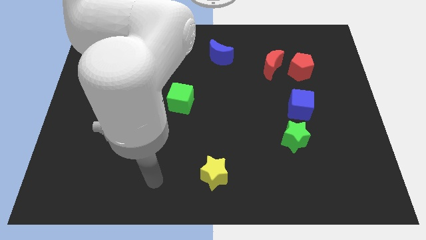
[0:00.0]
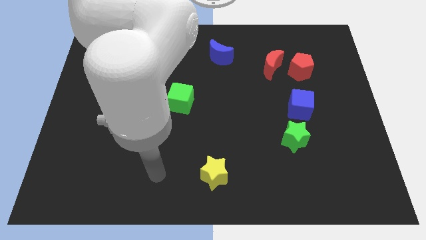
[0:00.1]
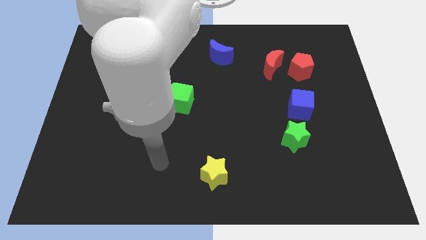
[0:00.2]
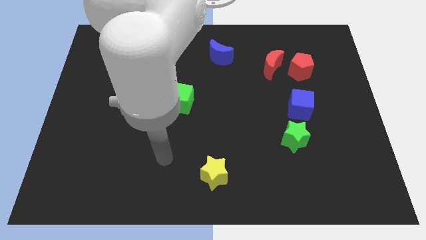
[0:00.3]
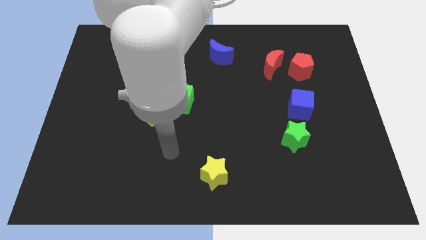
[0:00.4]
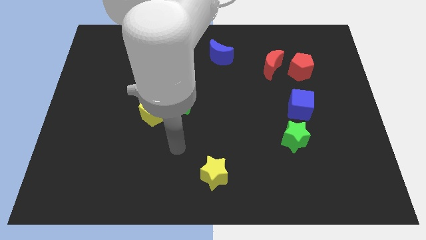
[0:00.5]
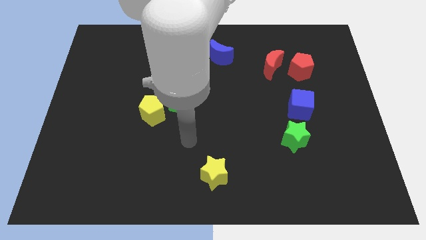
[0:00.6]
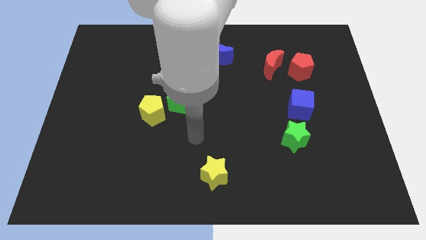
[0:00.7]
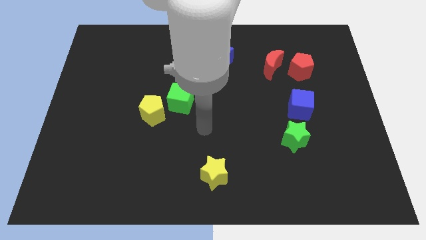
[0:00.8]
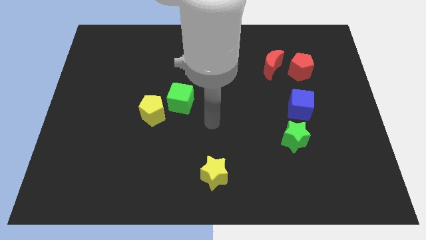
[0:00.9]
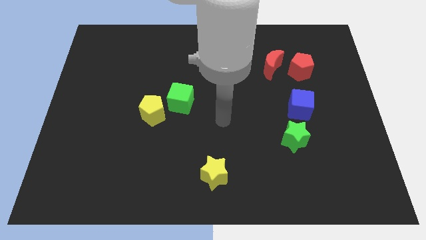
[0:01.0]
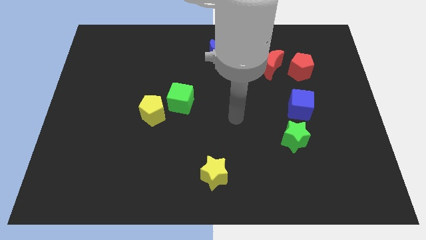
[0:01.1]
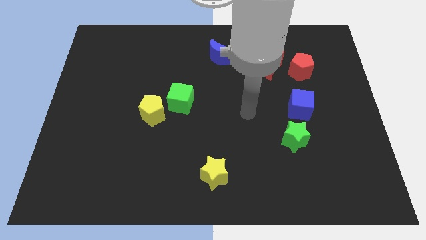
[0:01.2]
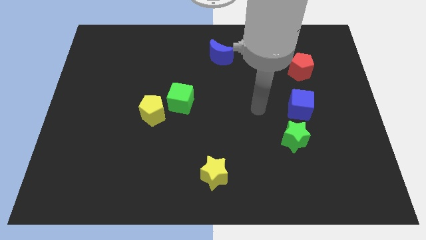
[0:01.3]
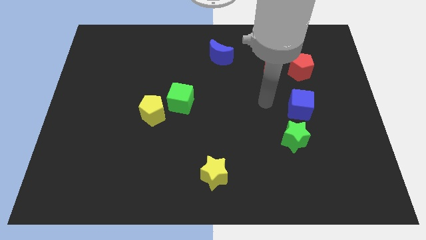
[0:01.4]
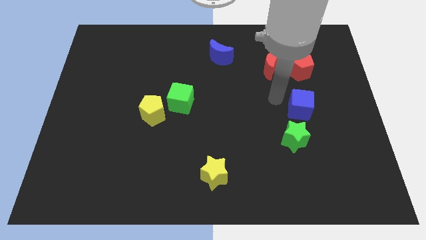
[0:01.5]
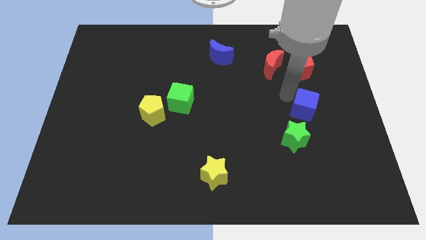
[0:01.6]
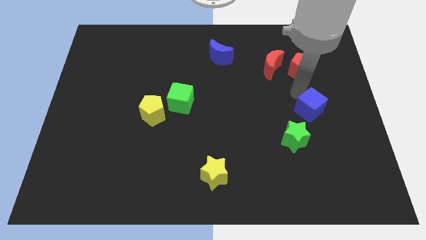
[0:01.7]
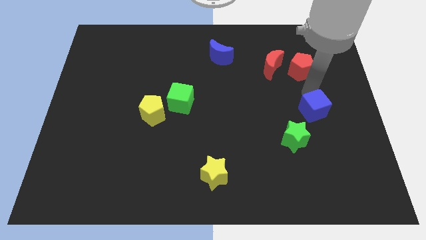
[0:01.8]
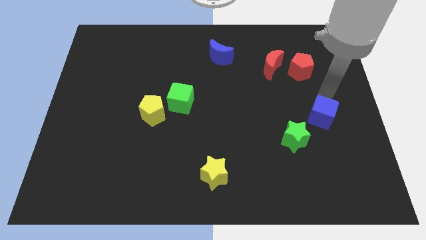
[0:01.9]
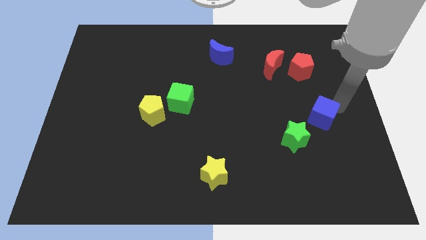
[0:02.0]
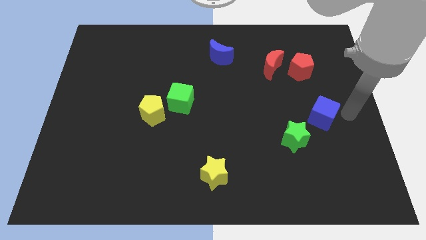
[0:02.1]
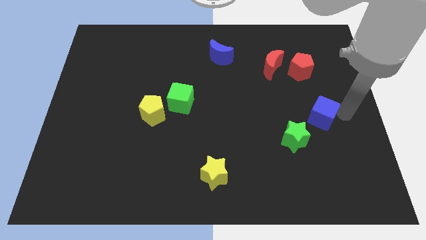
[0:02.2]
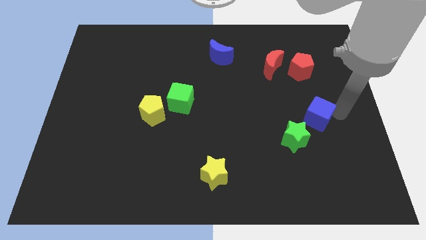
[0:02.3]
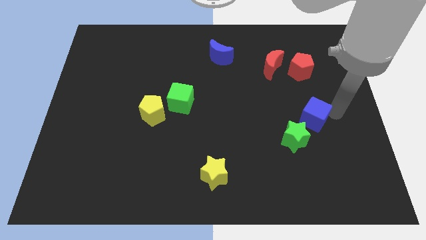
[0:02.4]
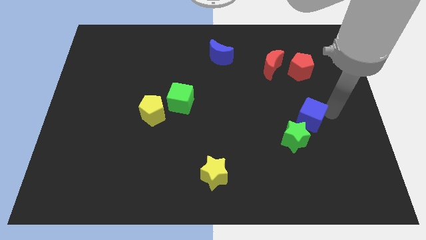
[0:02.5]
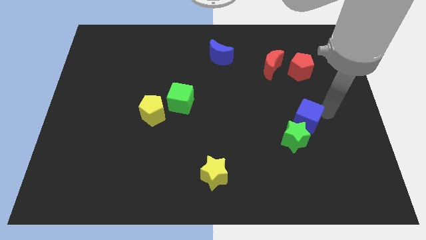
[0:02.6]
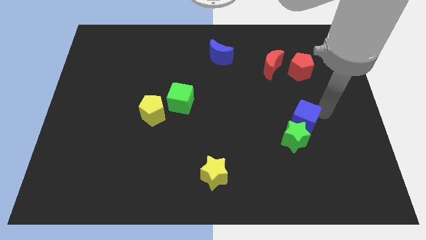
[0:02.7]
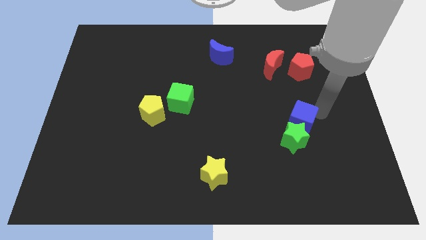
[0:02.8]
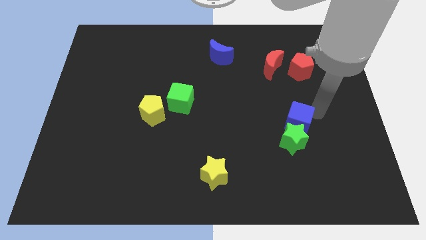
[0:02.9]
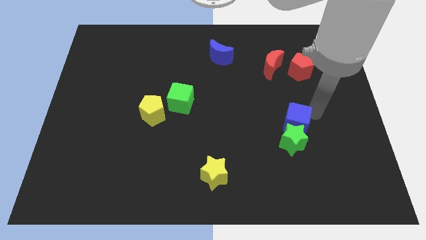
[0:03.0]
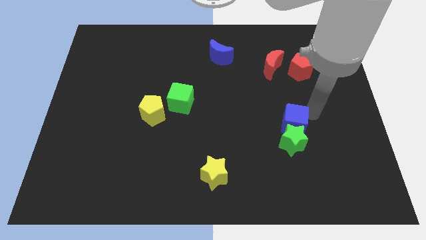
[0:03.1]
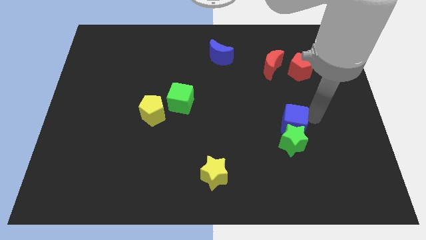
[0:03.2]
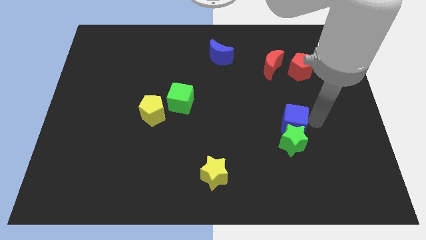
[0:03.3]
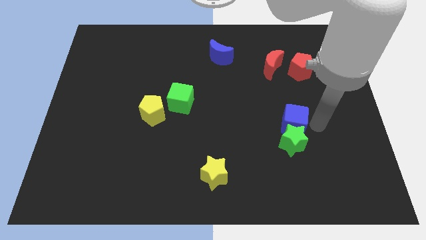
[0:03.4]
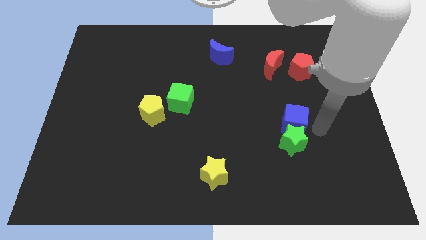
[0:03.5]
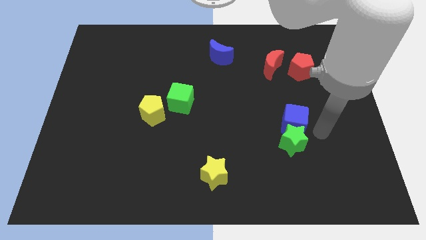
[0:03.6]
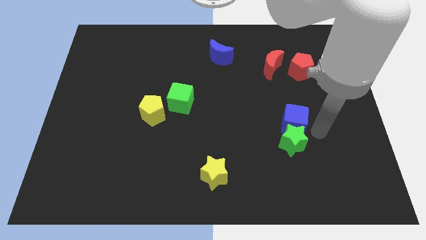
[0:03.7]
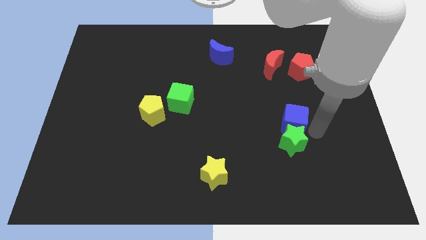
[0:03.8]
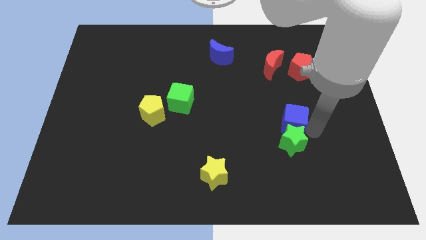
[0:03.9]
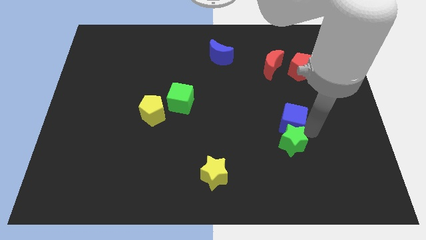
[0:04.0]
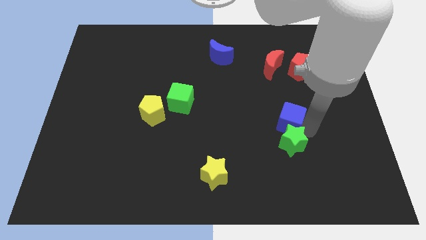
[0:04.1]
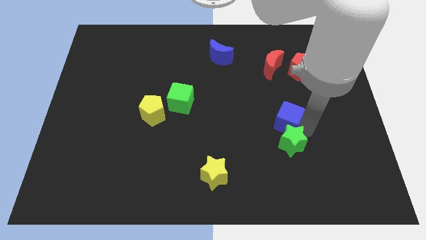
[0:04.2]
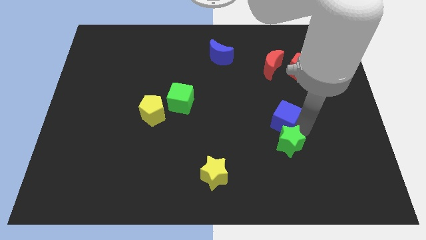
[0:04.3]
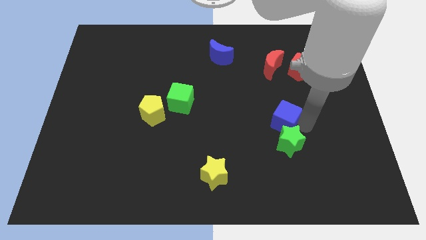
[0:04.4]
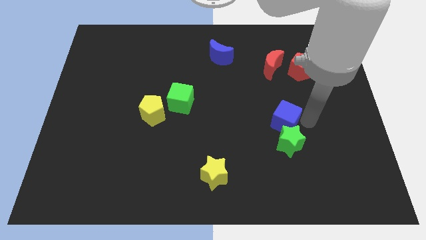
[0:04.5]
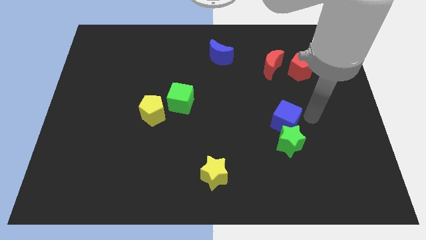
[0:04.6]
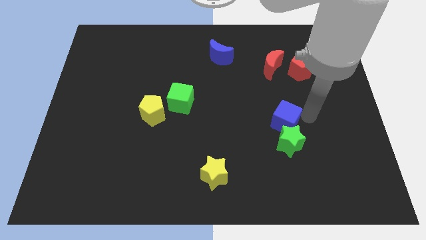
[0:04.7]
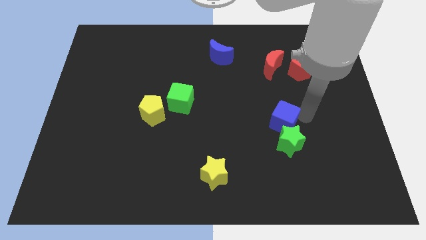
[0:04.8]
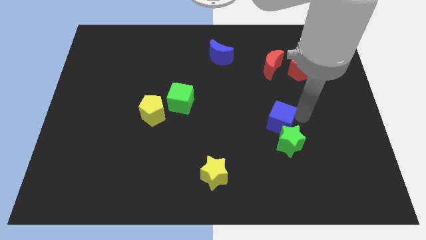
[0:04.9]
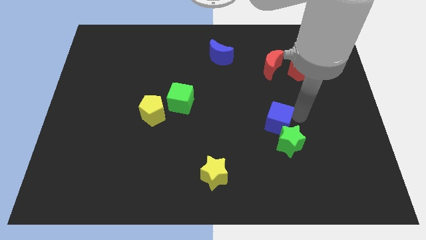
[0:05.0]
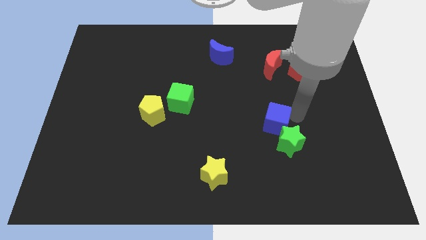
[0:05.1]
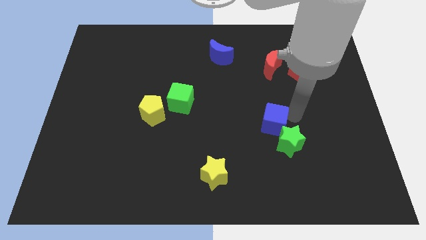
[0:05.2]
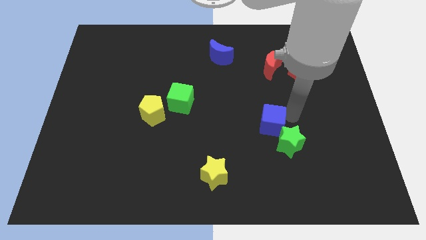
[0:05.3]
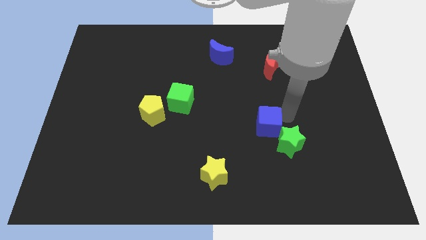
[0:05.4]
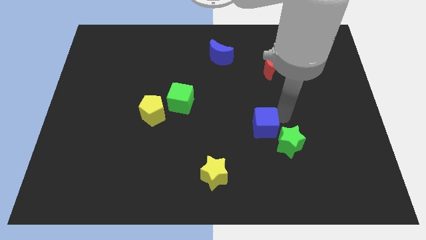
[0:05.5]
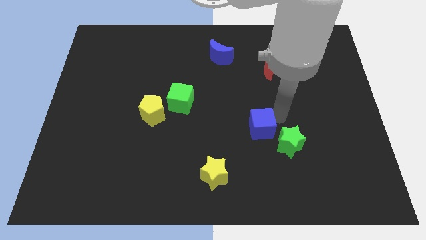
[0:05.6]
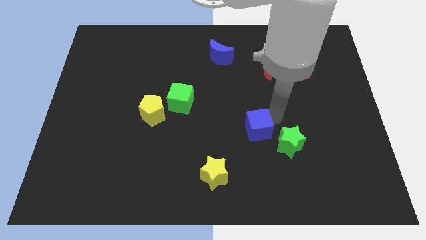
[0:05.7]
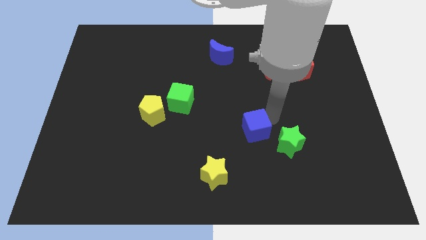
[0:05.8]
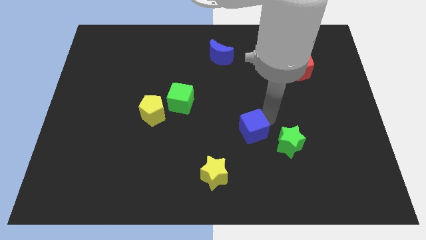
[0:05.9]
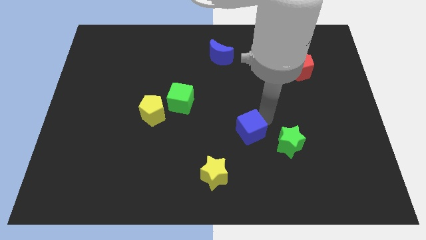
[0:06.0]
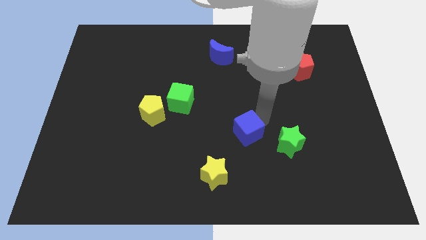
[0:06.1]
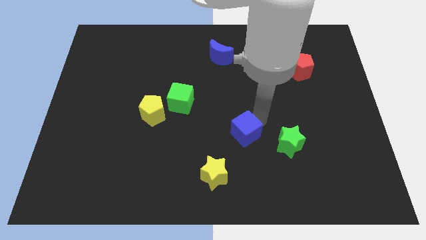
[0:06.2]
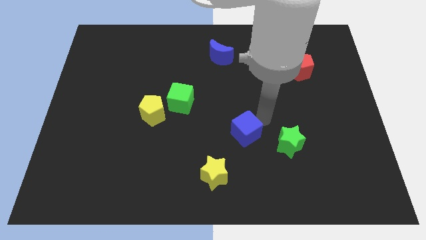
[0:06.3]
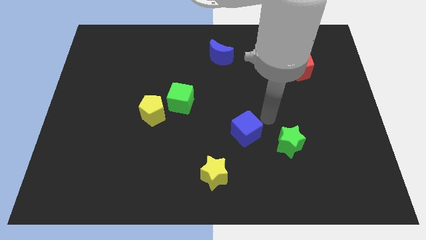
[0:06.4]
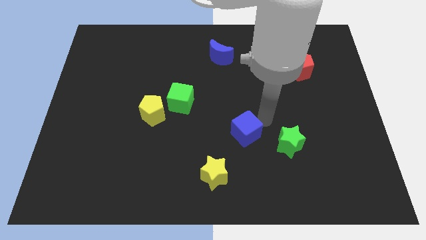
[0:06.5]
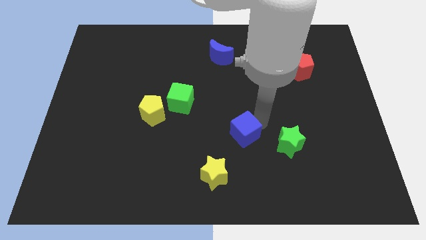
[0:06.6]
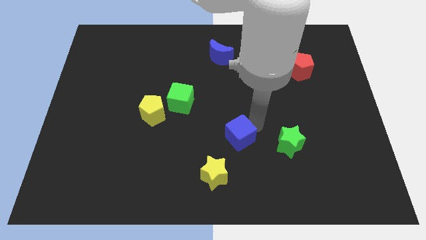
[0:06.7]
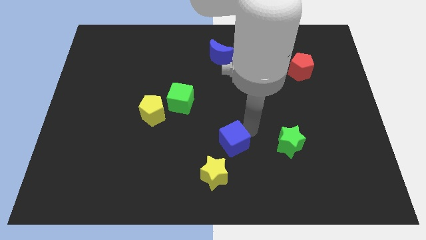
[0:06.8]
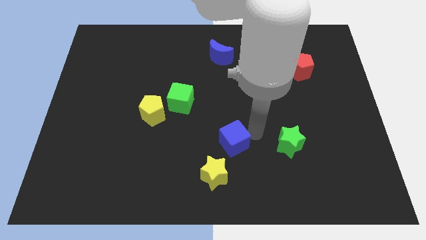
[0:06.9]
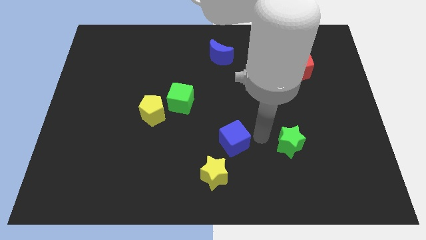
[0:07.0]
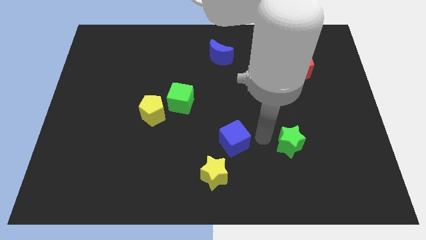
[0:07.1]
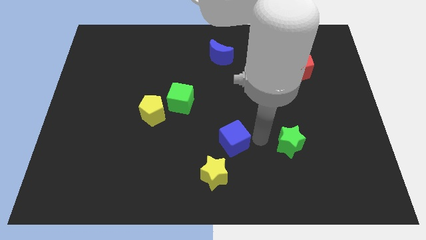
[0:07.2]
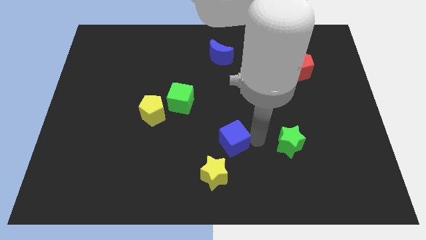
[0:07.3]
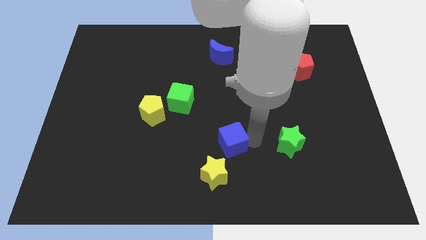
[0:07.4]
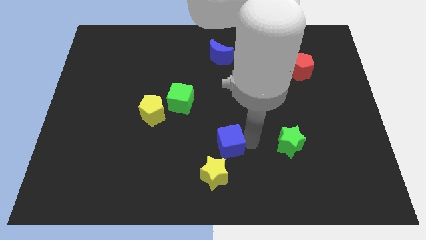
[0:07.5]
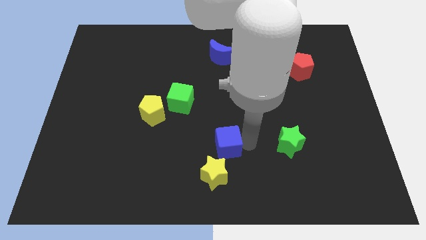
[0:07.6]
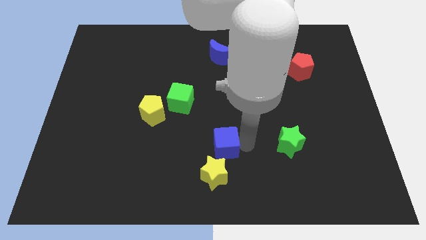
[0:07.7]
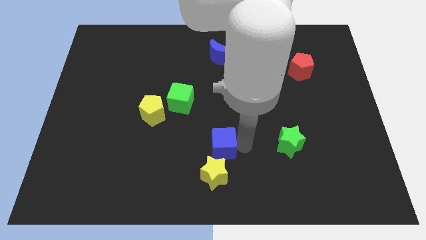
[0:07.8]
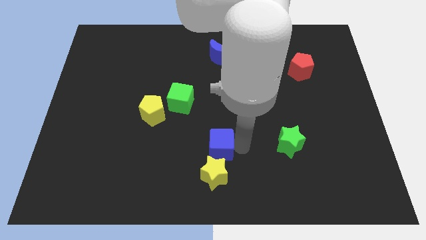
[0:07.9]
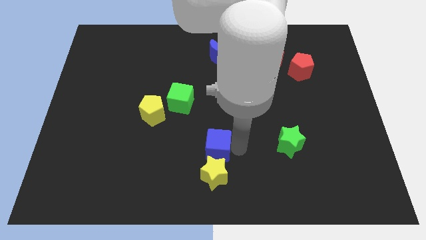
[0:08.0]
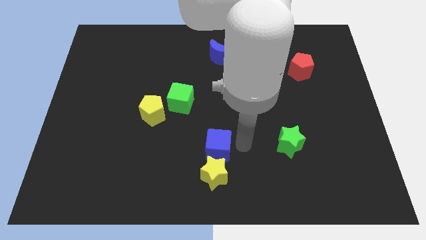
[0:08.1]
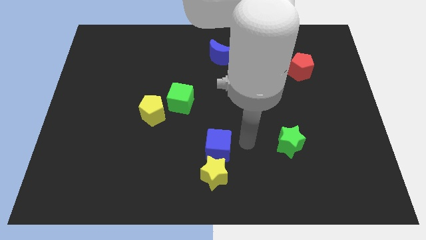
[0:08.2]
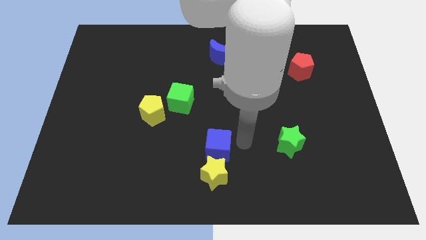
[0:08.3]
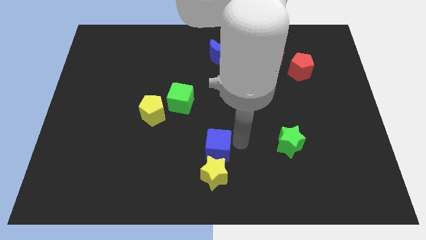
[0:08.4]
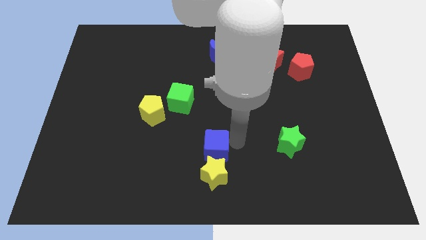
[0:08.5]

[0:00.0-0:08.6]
push the blue cube diagonally up and to the left of the yellow star
